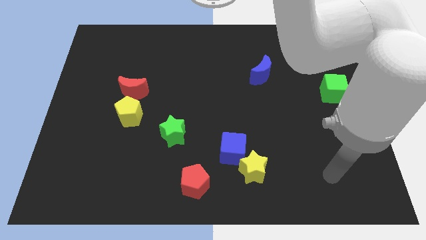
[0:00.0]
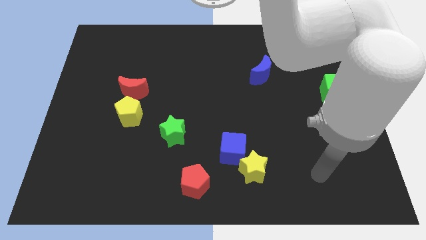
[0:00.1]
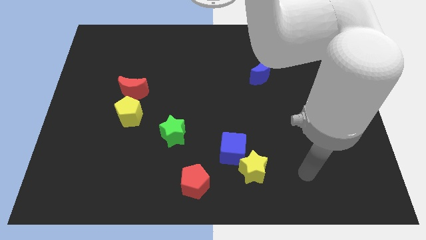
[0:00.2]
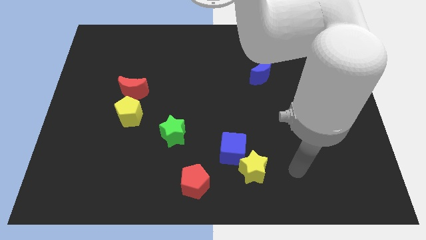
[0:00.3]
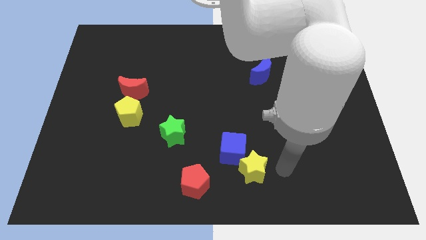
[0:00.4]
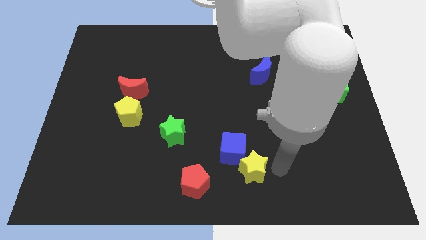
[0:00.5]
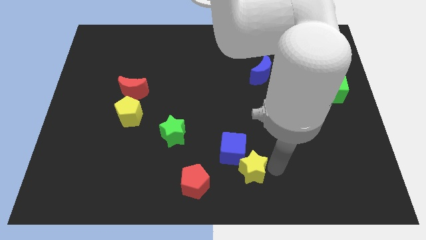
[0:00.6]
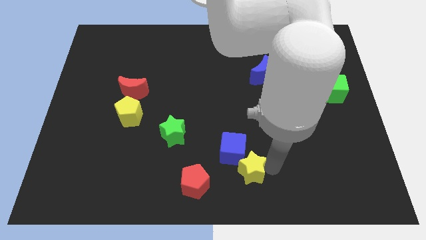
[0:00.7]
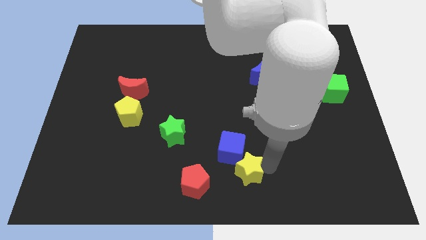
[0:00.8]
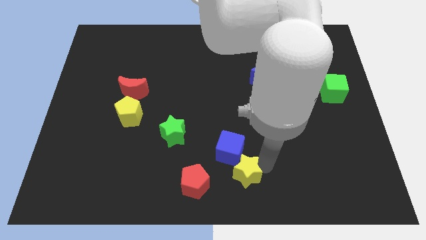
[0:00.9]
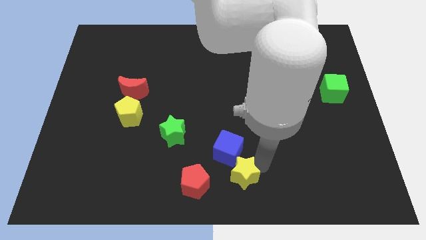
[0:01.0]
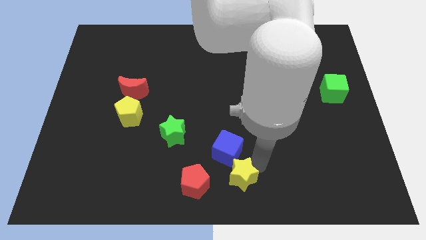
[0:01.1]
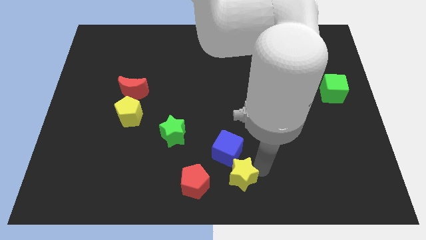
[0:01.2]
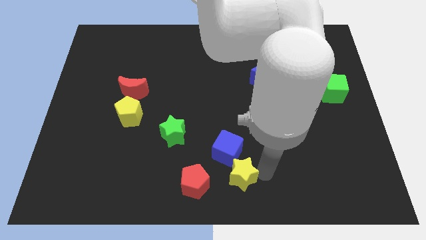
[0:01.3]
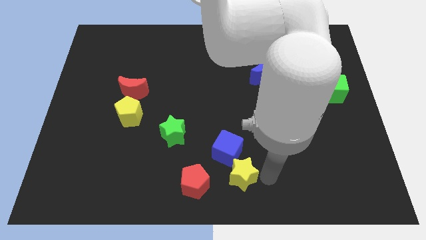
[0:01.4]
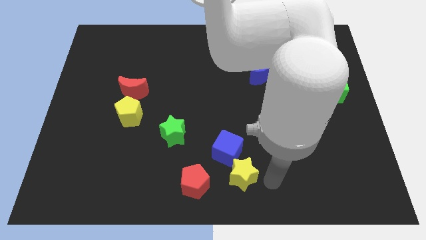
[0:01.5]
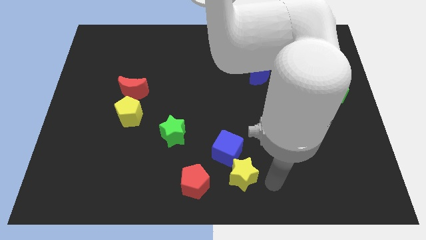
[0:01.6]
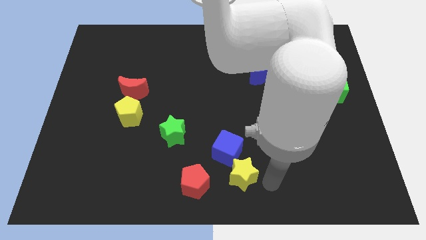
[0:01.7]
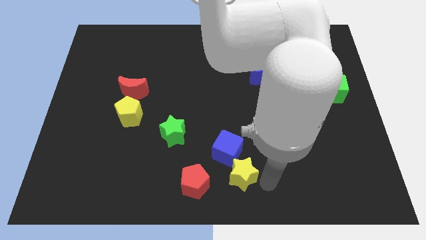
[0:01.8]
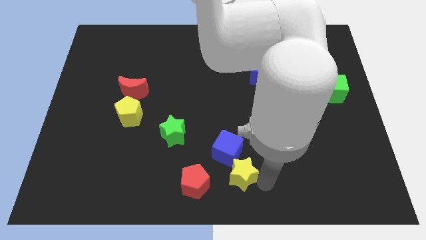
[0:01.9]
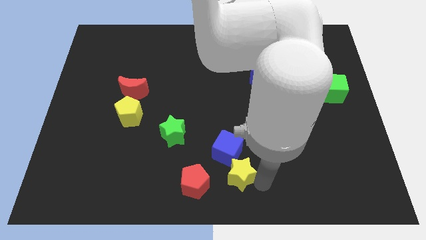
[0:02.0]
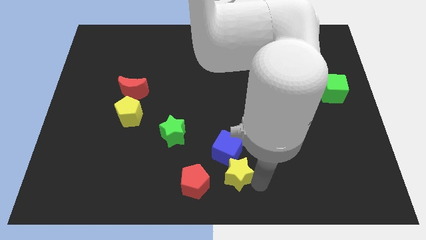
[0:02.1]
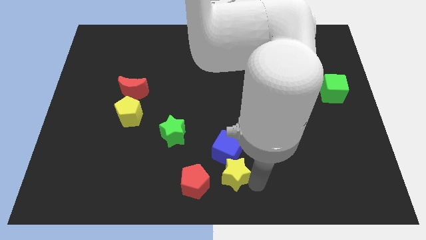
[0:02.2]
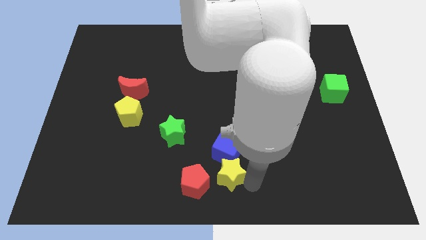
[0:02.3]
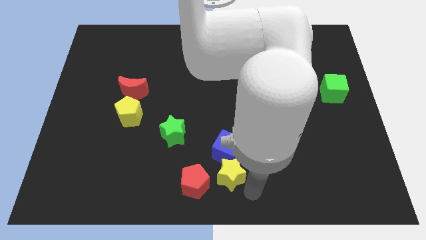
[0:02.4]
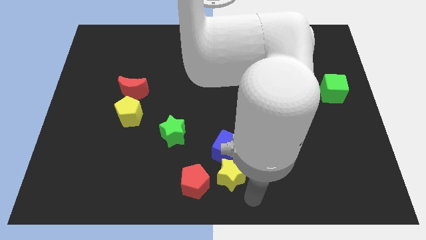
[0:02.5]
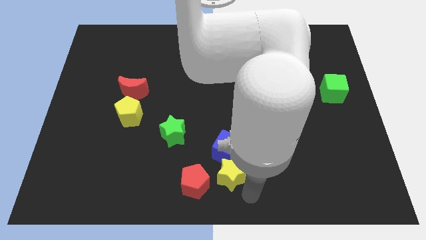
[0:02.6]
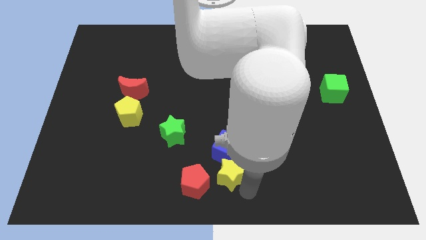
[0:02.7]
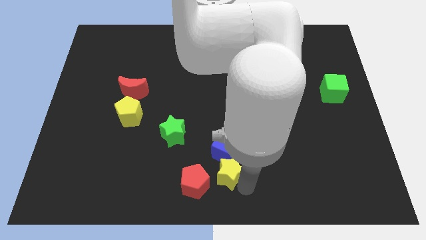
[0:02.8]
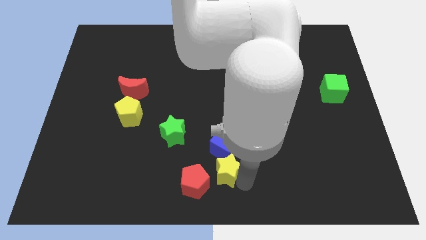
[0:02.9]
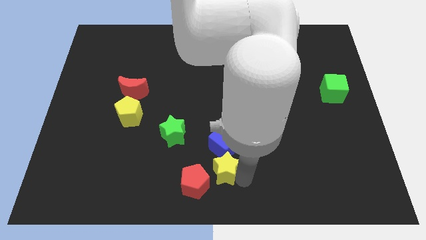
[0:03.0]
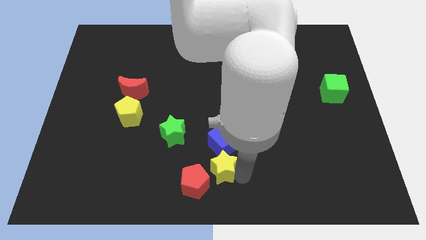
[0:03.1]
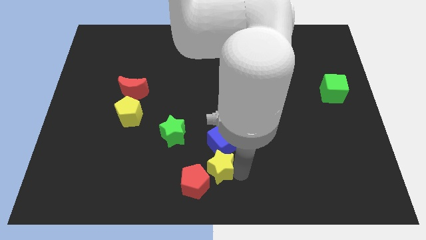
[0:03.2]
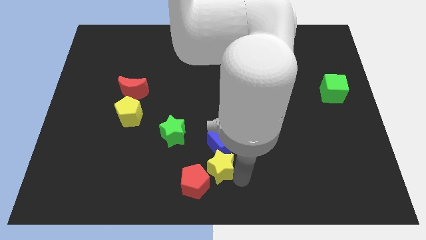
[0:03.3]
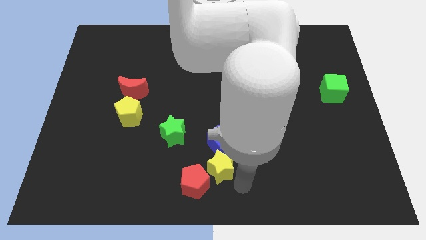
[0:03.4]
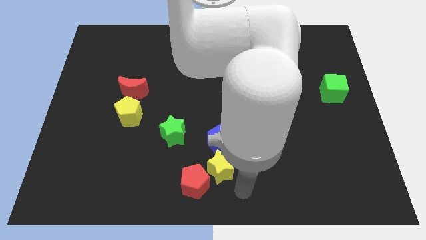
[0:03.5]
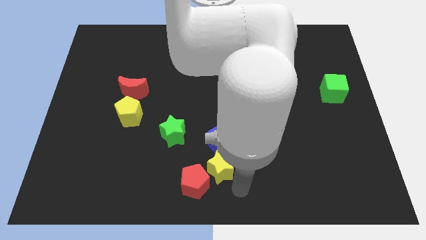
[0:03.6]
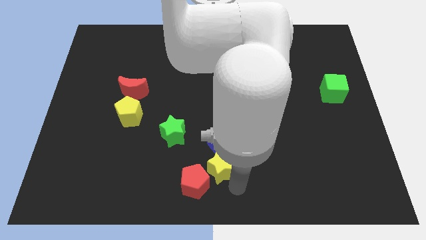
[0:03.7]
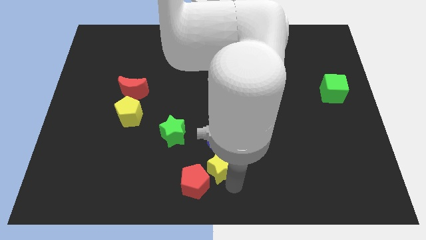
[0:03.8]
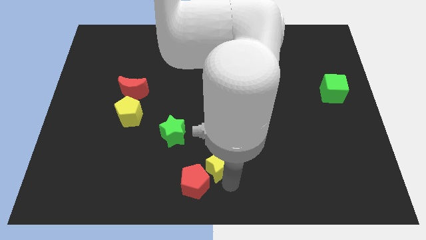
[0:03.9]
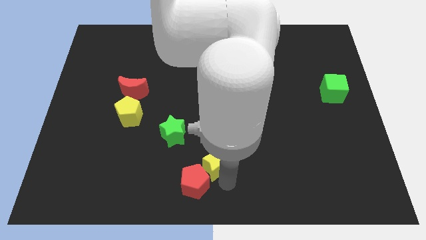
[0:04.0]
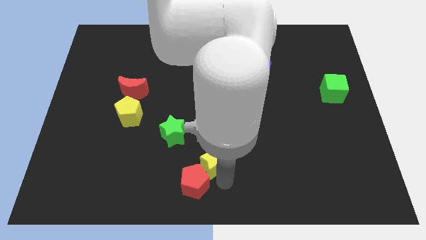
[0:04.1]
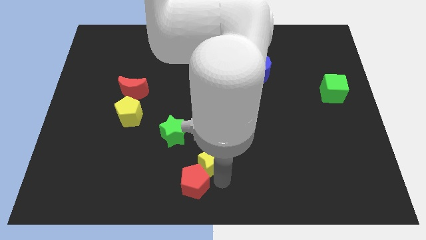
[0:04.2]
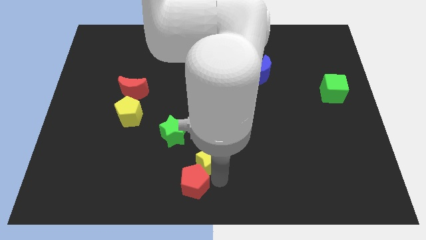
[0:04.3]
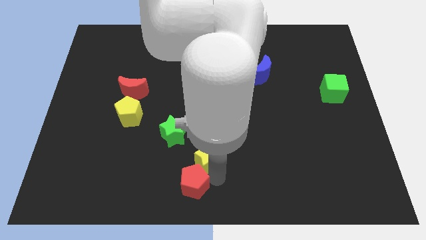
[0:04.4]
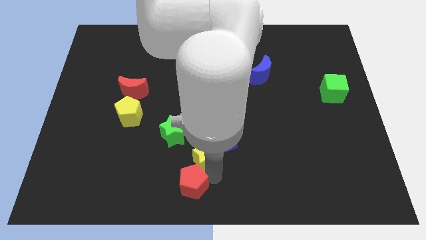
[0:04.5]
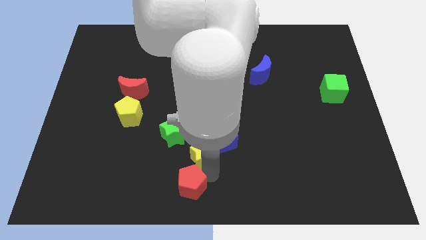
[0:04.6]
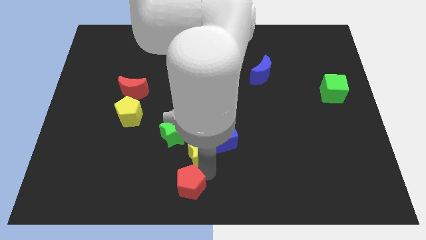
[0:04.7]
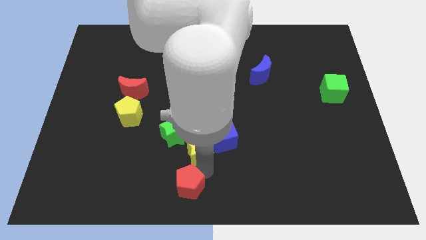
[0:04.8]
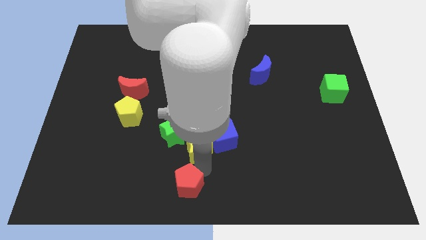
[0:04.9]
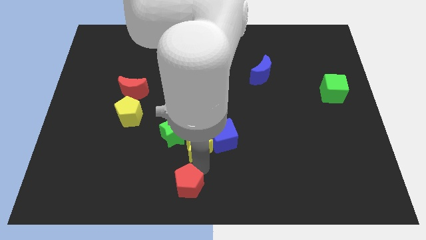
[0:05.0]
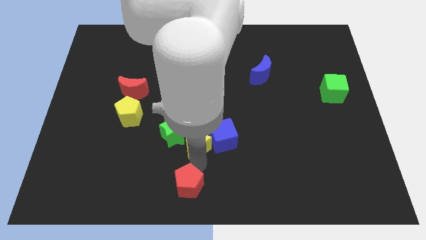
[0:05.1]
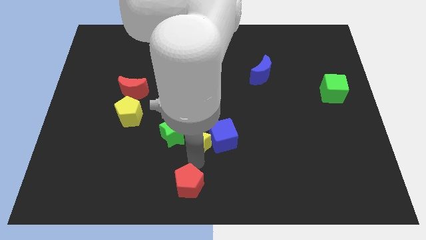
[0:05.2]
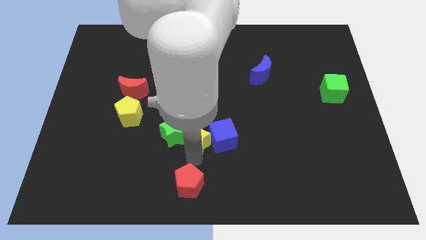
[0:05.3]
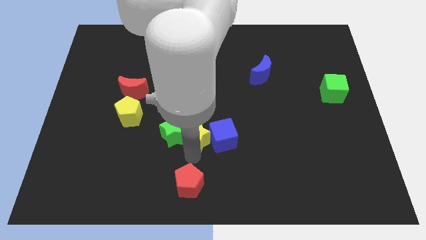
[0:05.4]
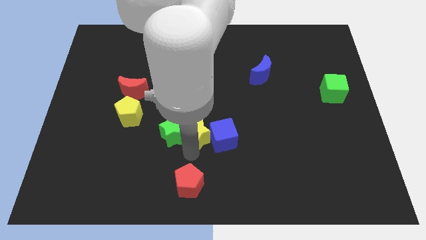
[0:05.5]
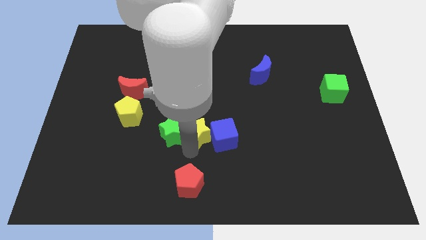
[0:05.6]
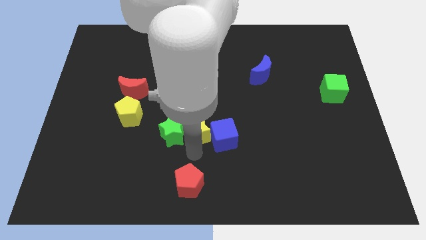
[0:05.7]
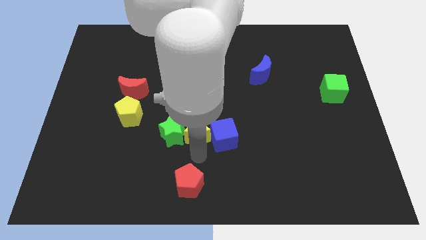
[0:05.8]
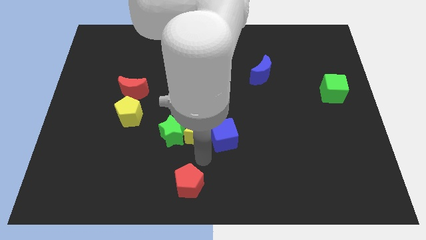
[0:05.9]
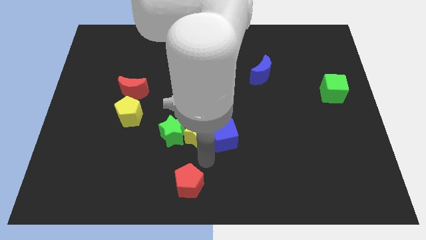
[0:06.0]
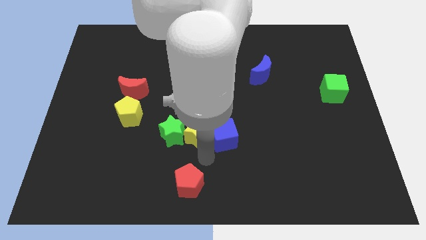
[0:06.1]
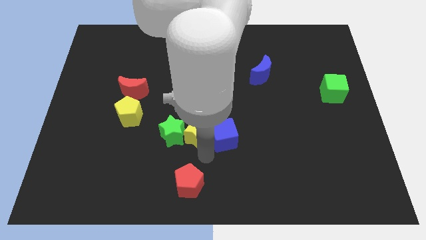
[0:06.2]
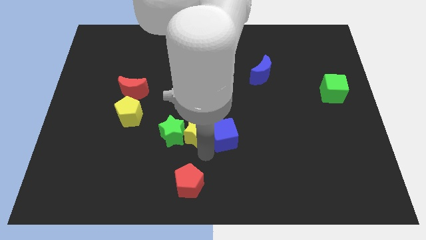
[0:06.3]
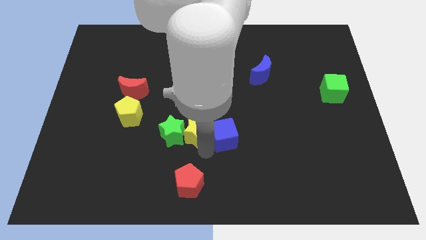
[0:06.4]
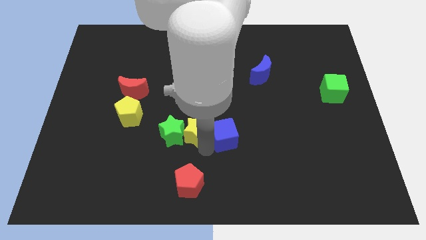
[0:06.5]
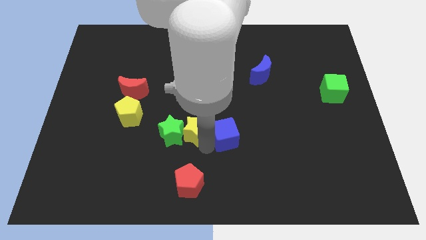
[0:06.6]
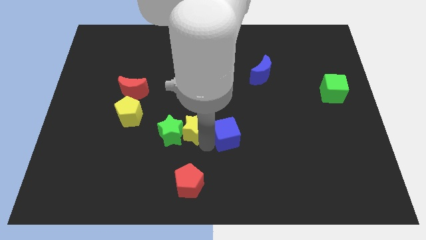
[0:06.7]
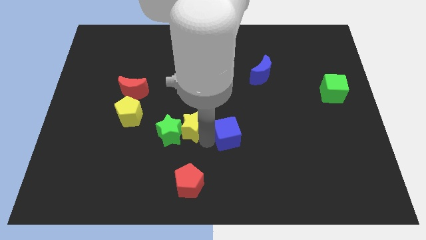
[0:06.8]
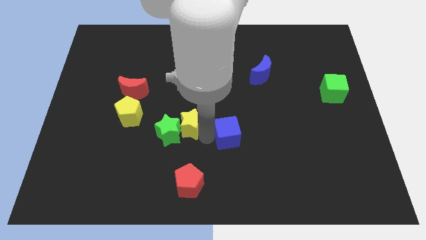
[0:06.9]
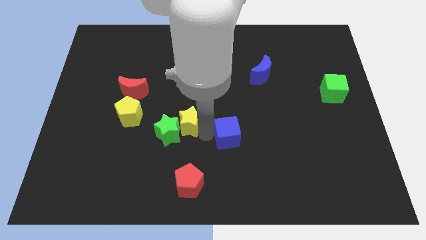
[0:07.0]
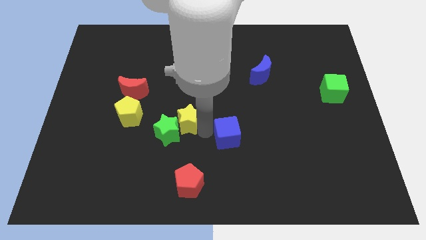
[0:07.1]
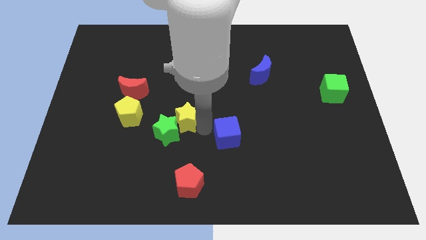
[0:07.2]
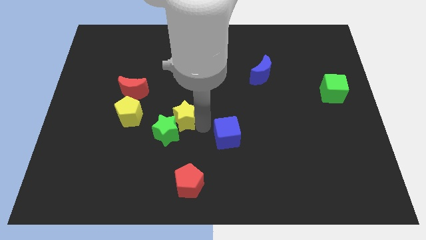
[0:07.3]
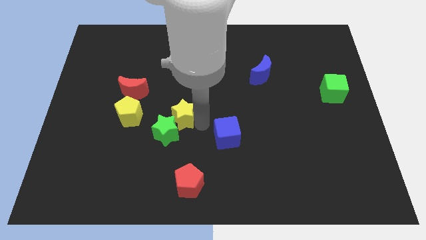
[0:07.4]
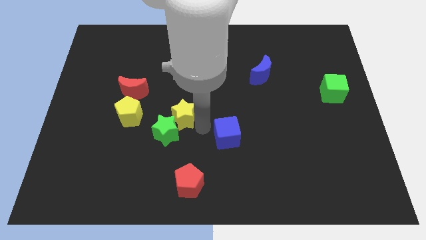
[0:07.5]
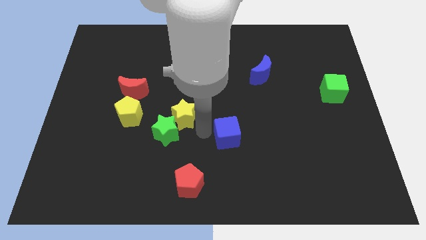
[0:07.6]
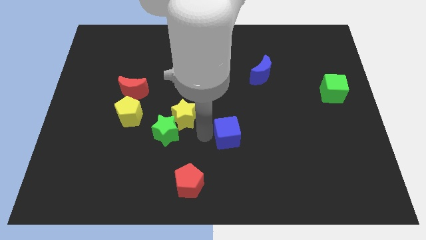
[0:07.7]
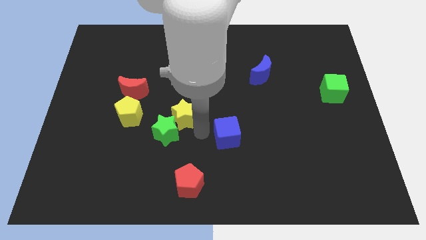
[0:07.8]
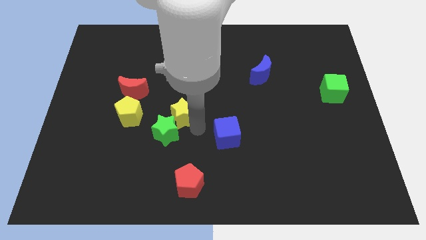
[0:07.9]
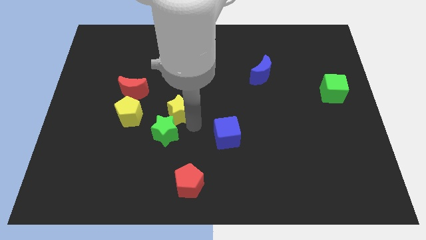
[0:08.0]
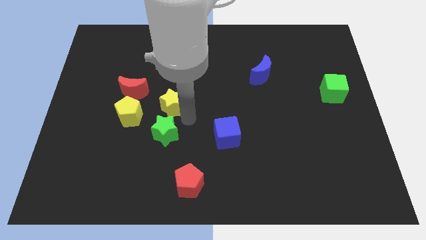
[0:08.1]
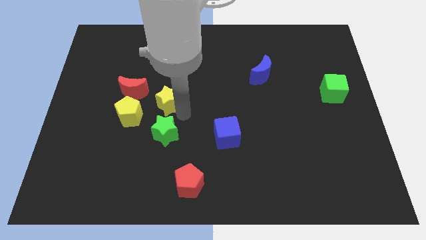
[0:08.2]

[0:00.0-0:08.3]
push the yellow star to the top right of the yellow pentagon
